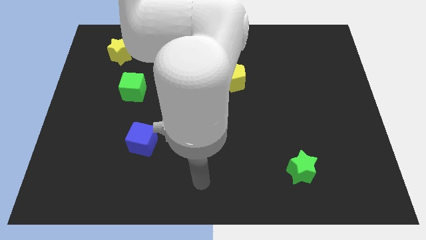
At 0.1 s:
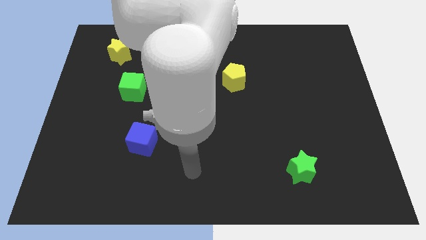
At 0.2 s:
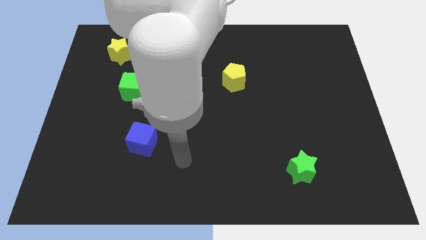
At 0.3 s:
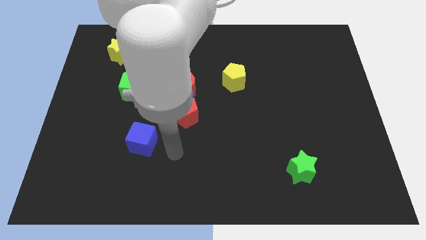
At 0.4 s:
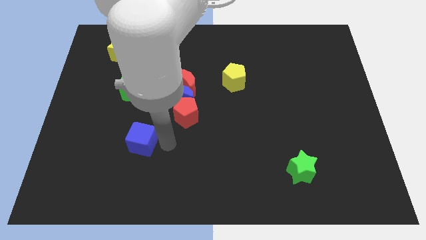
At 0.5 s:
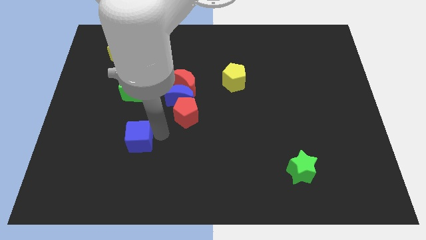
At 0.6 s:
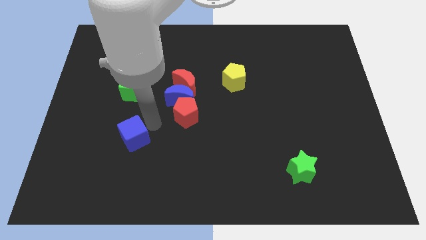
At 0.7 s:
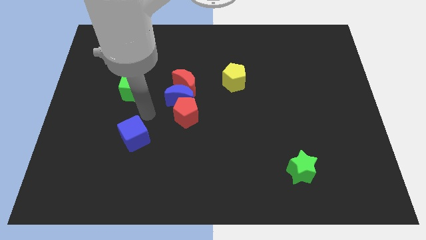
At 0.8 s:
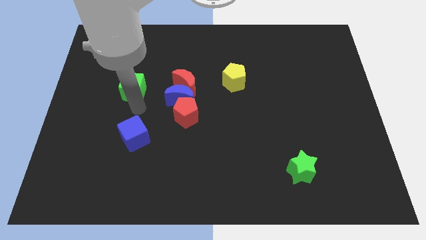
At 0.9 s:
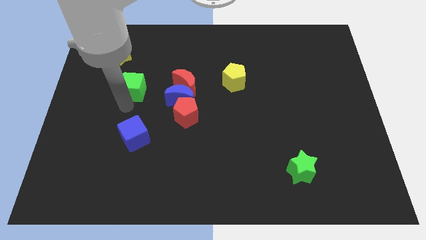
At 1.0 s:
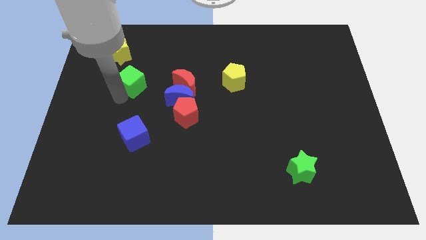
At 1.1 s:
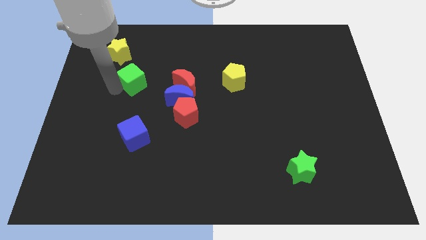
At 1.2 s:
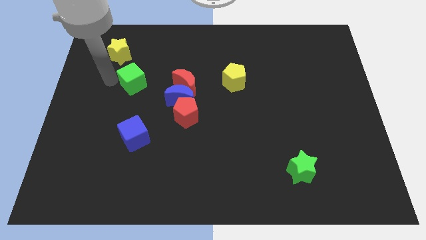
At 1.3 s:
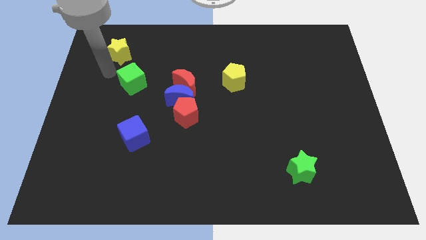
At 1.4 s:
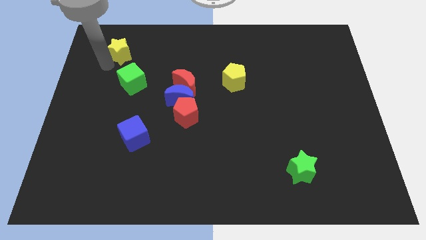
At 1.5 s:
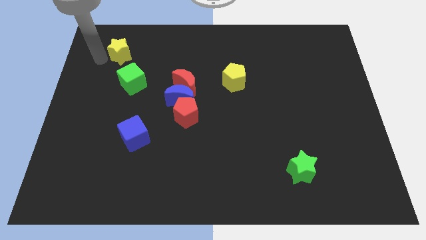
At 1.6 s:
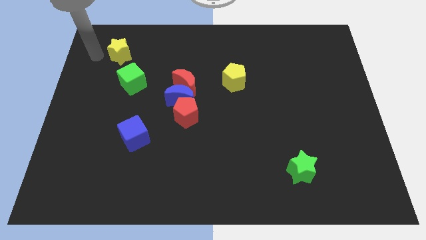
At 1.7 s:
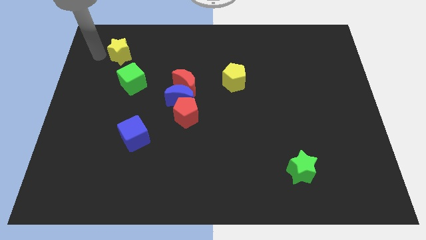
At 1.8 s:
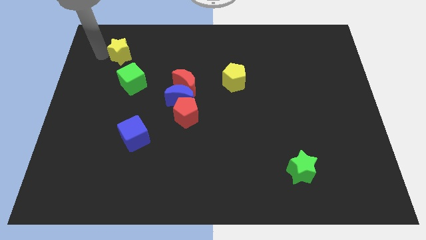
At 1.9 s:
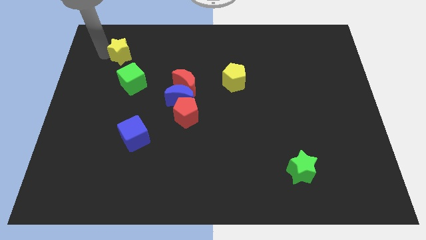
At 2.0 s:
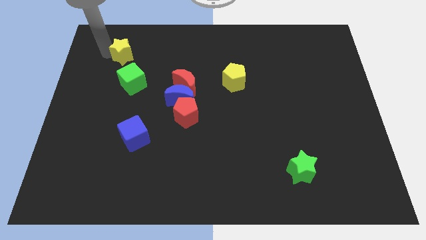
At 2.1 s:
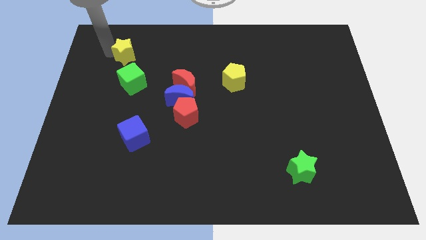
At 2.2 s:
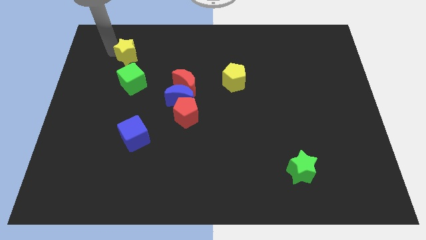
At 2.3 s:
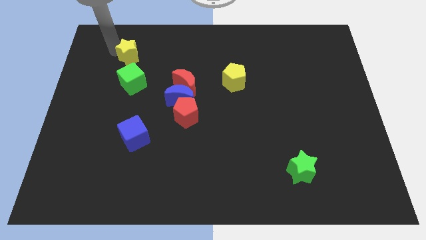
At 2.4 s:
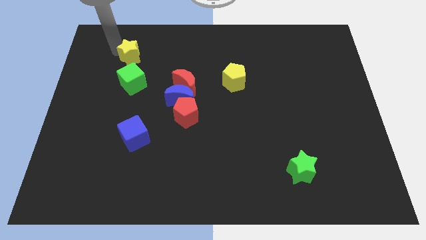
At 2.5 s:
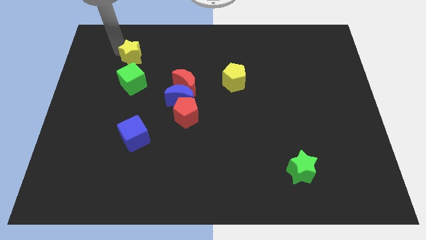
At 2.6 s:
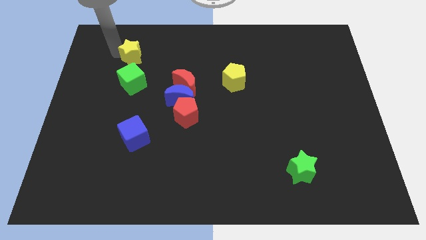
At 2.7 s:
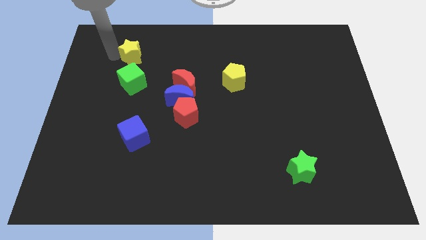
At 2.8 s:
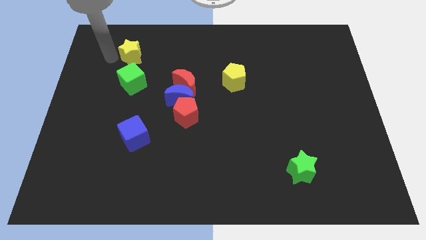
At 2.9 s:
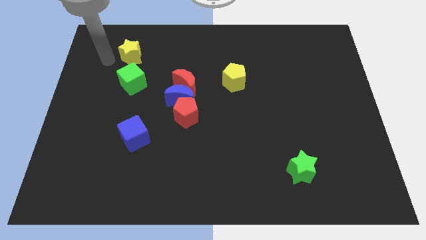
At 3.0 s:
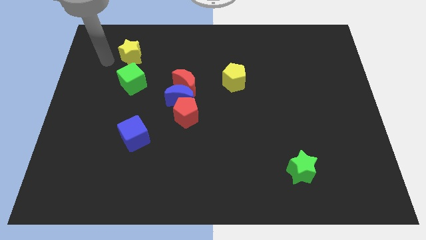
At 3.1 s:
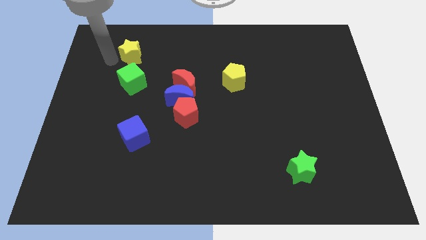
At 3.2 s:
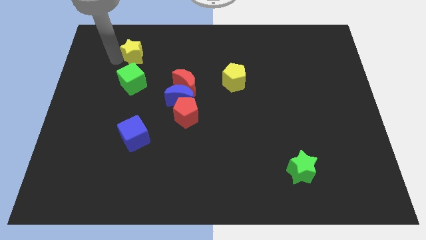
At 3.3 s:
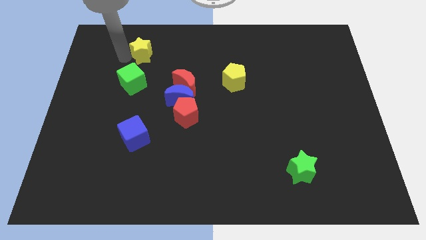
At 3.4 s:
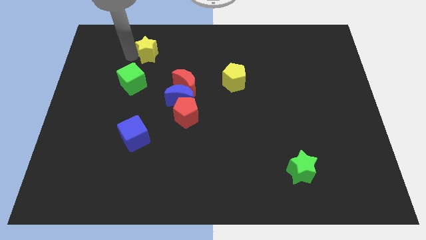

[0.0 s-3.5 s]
move the yellow star a little right

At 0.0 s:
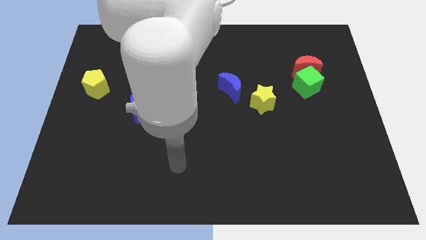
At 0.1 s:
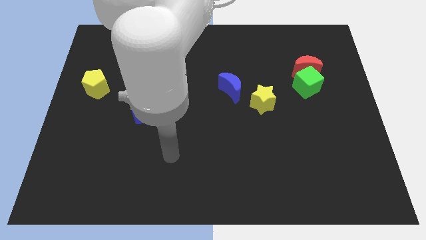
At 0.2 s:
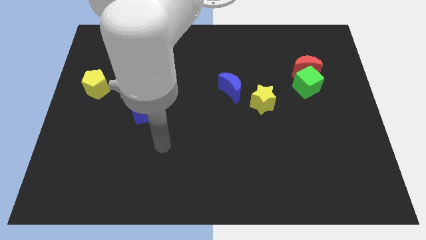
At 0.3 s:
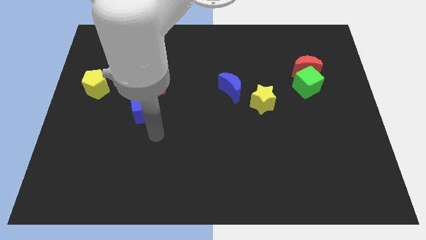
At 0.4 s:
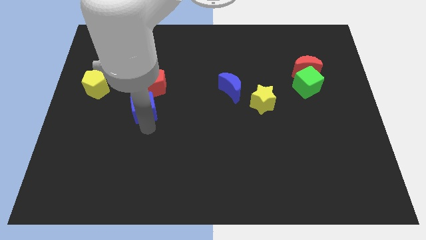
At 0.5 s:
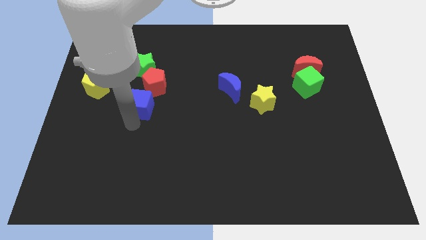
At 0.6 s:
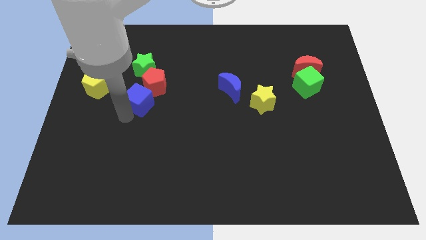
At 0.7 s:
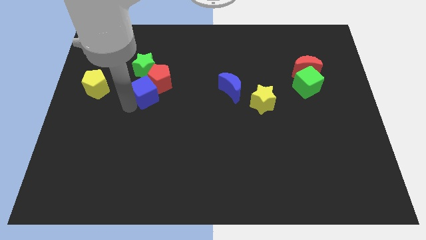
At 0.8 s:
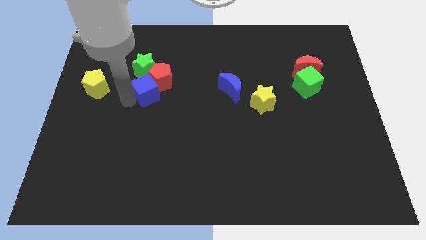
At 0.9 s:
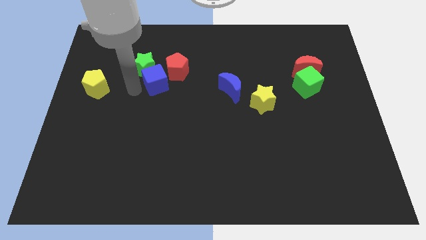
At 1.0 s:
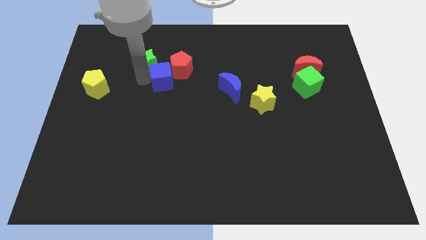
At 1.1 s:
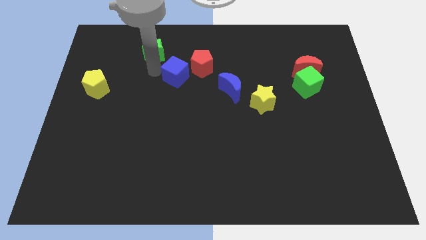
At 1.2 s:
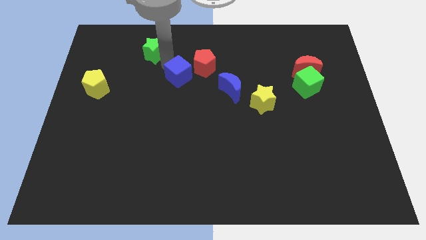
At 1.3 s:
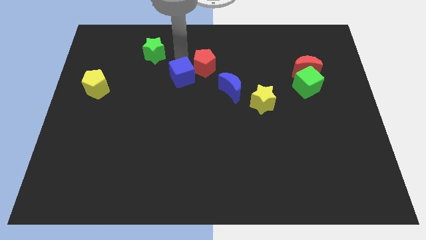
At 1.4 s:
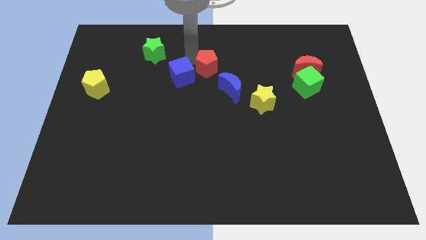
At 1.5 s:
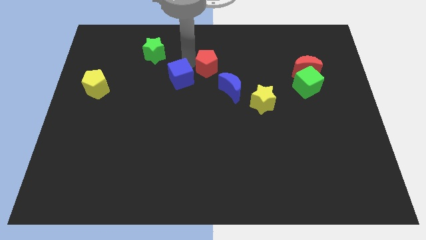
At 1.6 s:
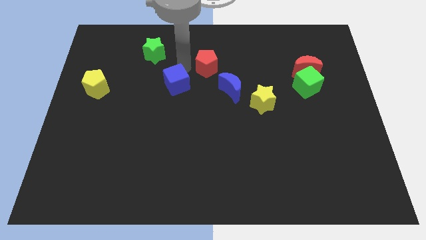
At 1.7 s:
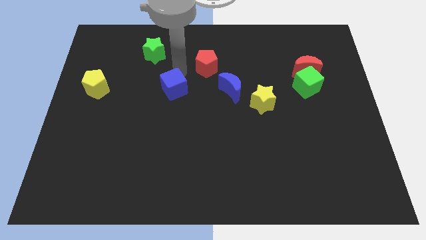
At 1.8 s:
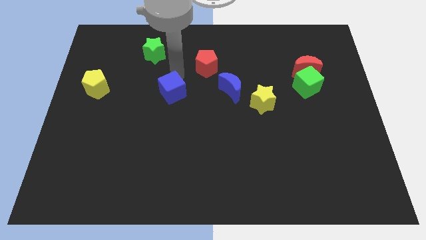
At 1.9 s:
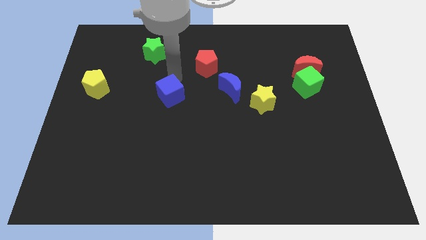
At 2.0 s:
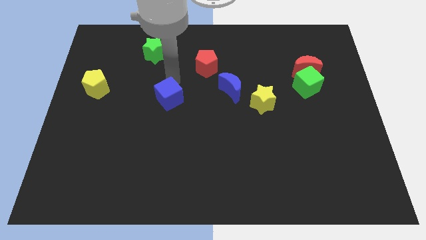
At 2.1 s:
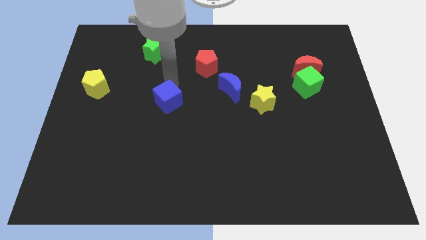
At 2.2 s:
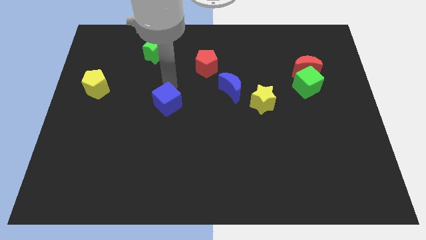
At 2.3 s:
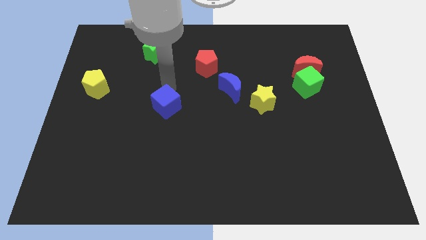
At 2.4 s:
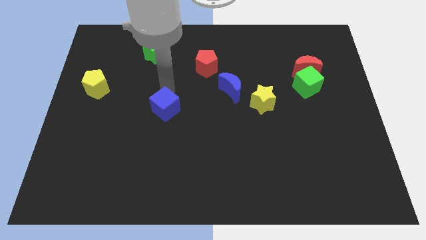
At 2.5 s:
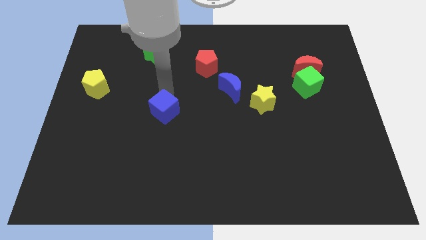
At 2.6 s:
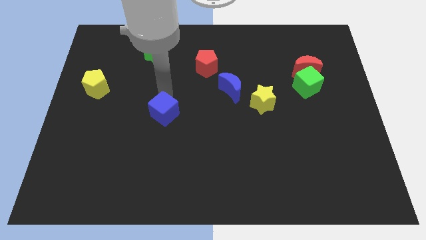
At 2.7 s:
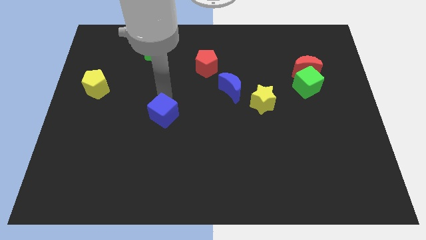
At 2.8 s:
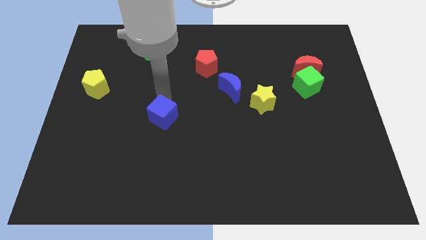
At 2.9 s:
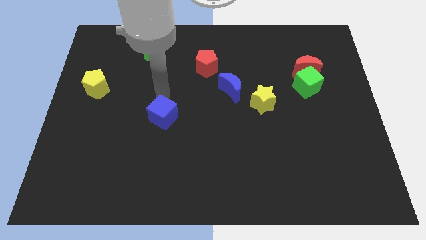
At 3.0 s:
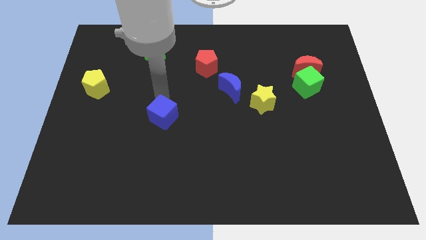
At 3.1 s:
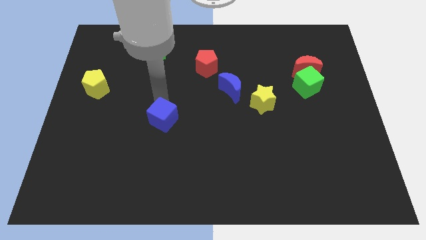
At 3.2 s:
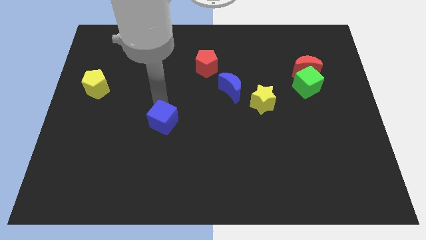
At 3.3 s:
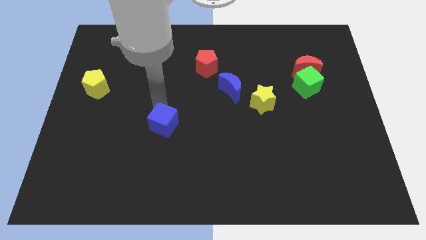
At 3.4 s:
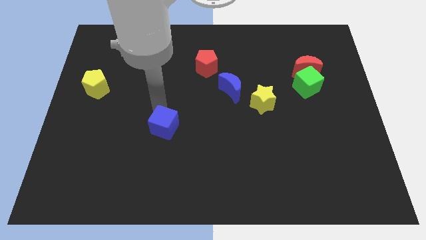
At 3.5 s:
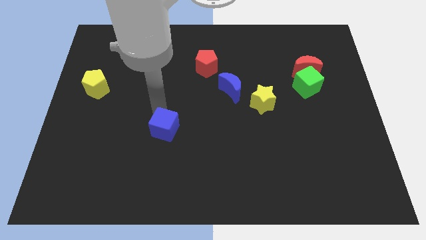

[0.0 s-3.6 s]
move the blue cube a little bit down and right

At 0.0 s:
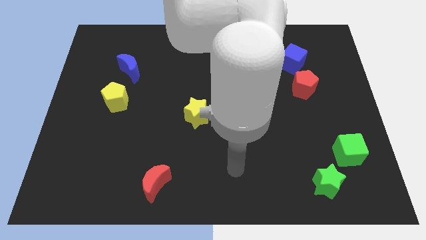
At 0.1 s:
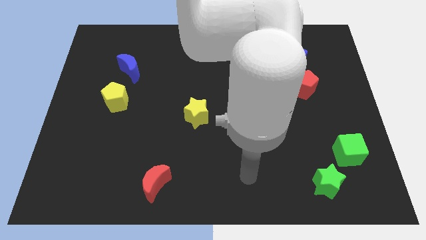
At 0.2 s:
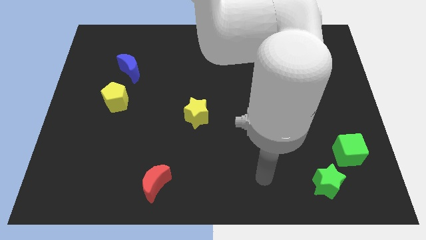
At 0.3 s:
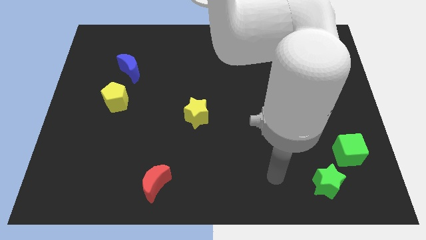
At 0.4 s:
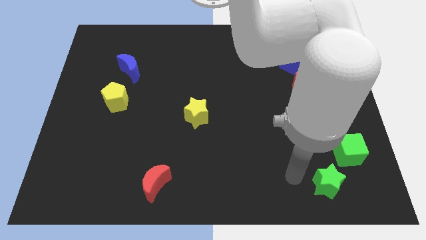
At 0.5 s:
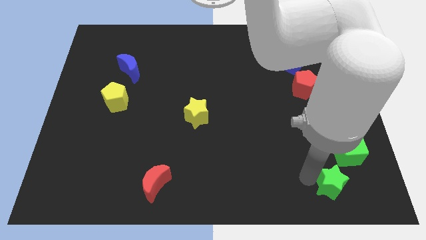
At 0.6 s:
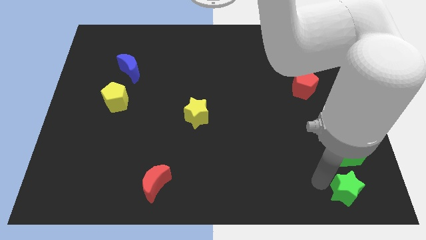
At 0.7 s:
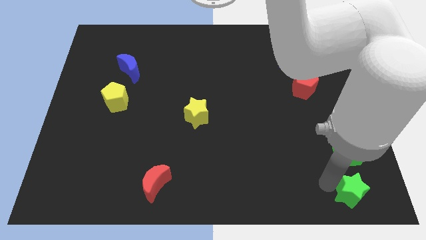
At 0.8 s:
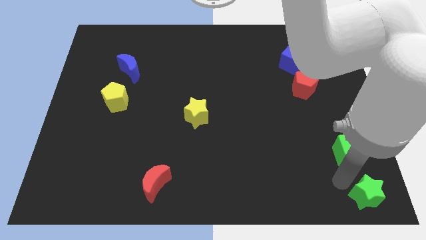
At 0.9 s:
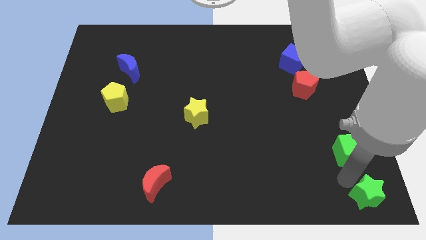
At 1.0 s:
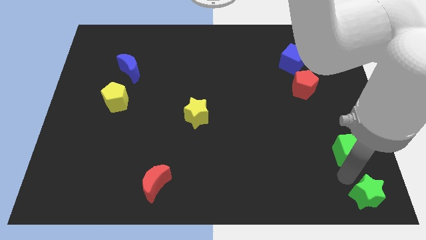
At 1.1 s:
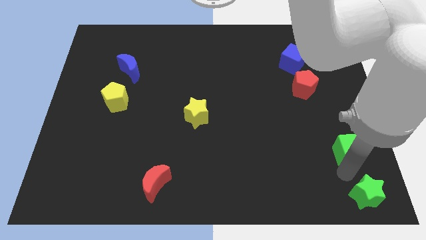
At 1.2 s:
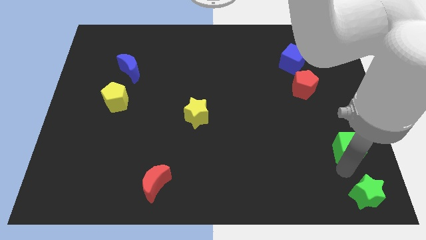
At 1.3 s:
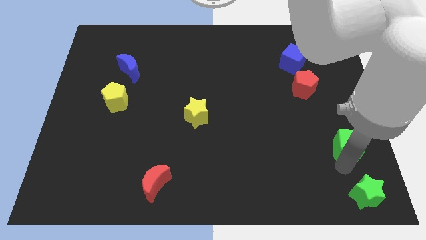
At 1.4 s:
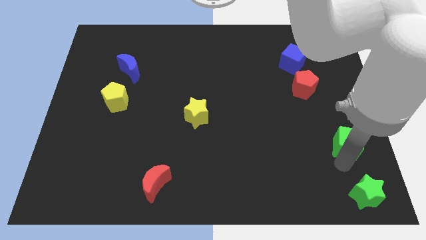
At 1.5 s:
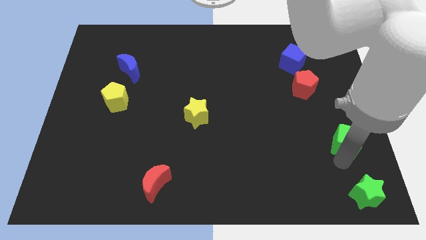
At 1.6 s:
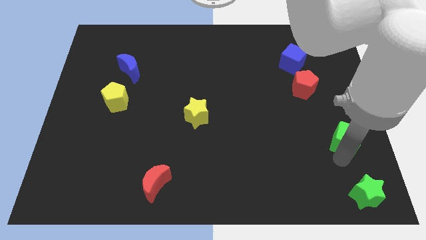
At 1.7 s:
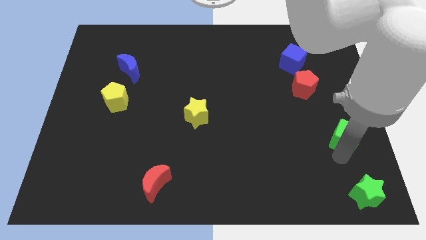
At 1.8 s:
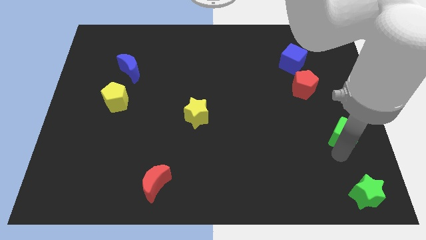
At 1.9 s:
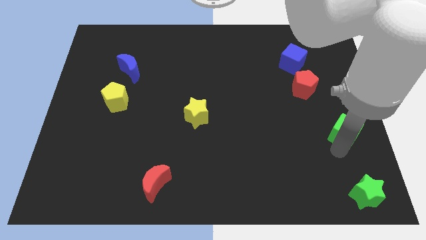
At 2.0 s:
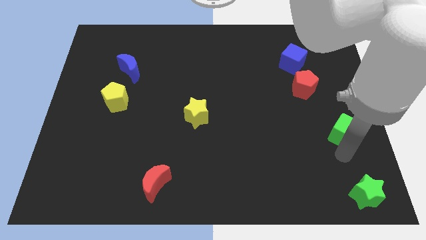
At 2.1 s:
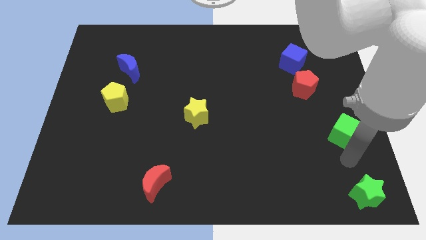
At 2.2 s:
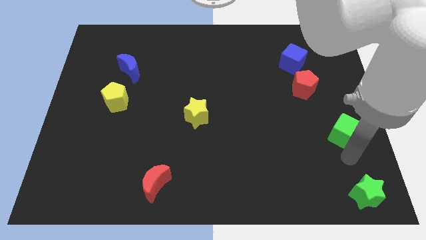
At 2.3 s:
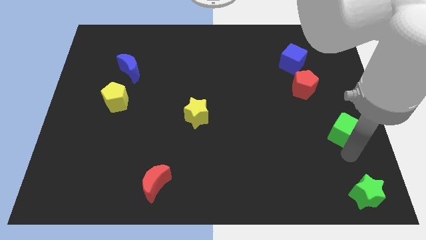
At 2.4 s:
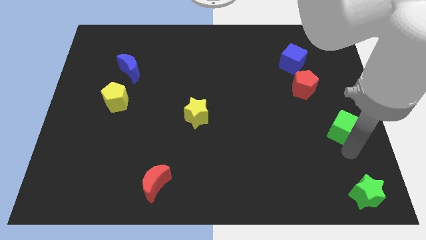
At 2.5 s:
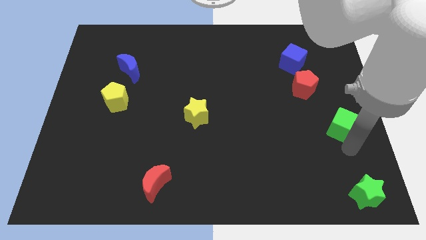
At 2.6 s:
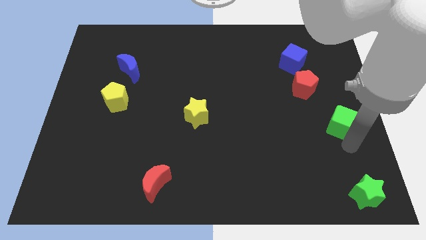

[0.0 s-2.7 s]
move the green cube up somewhat
